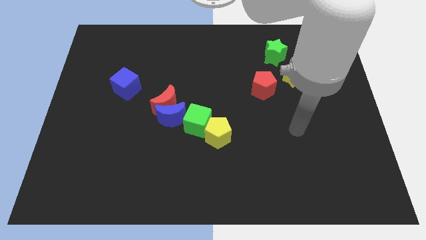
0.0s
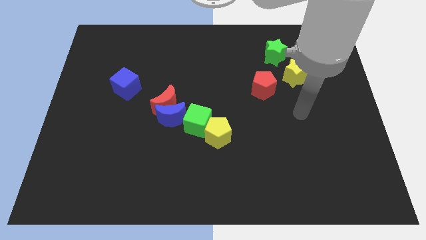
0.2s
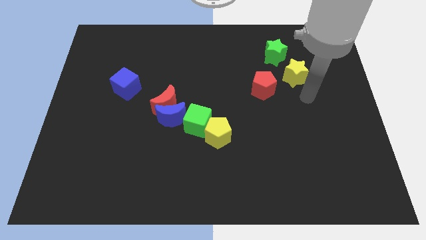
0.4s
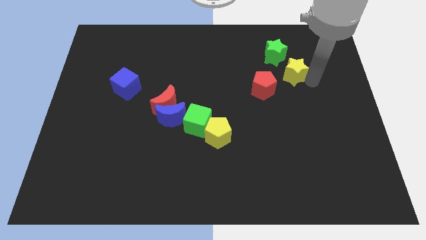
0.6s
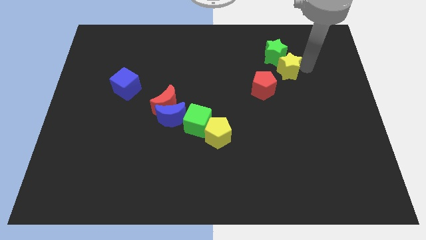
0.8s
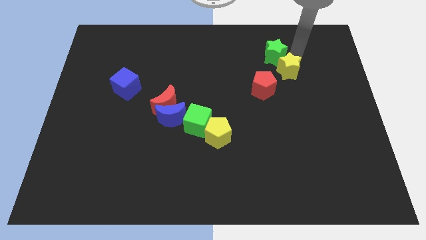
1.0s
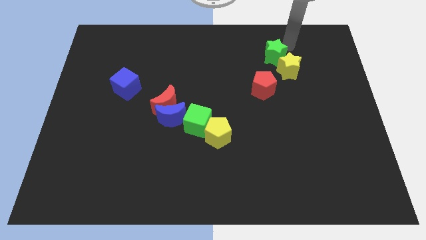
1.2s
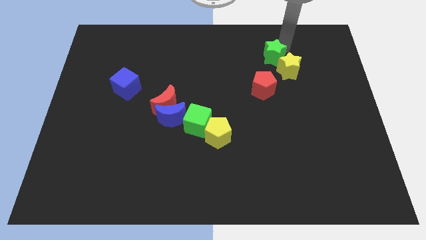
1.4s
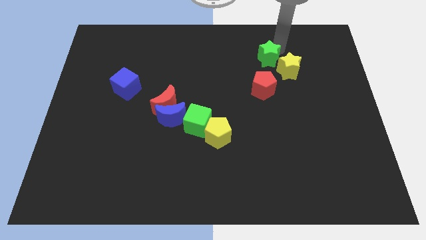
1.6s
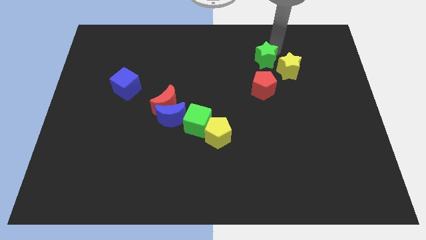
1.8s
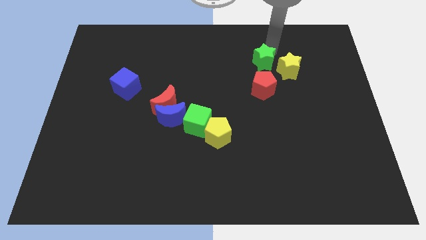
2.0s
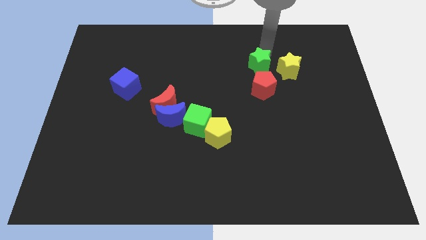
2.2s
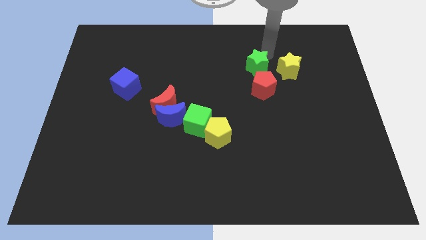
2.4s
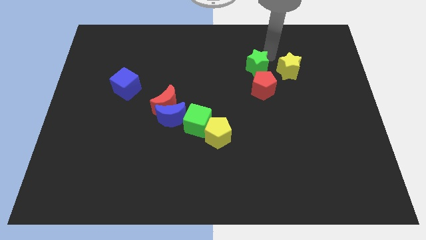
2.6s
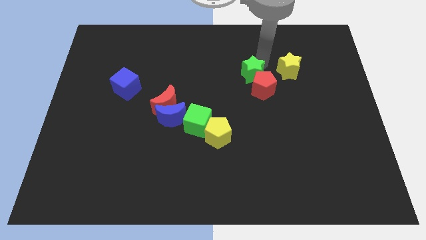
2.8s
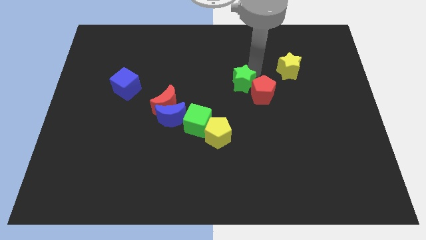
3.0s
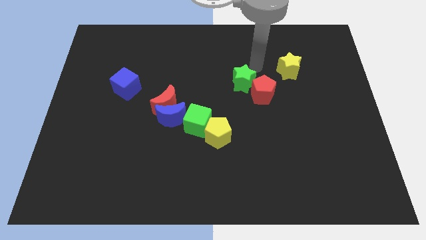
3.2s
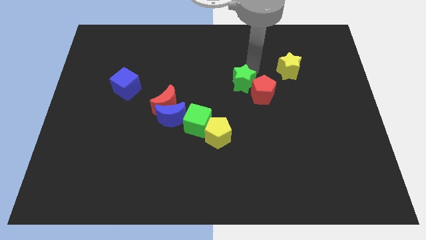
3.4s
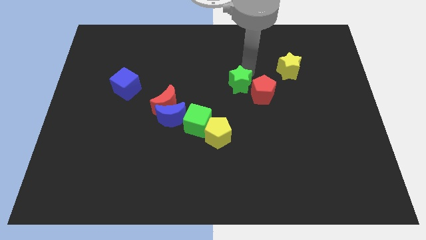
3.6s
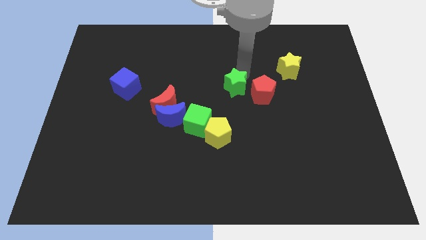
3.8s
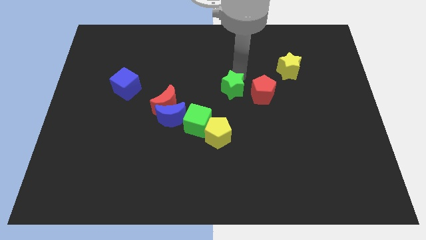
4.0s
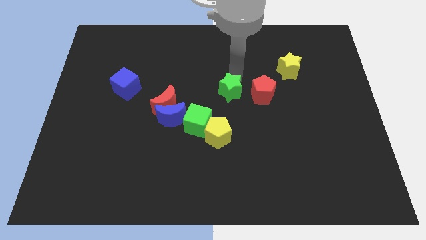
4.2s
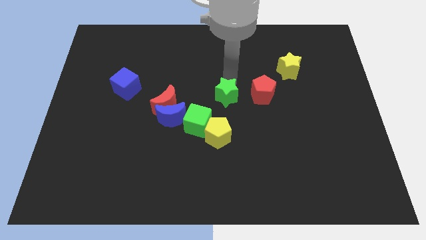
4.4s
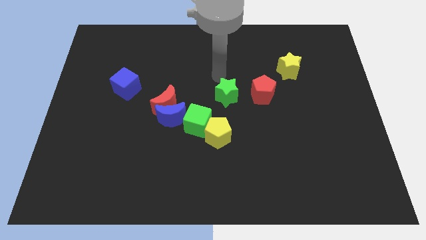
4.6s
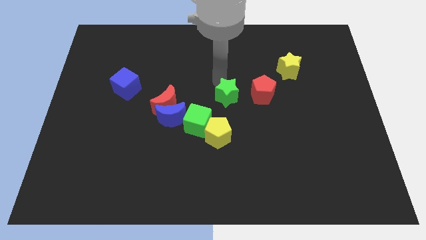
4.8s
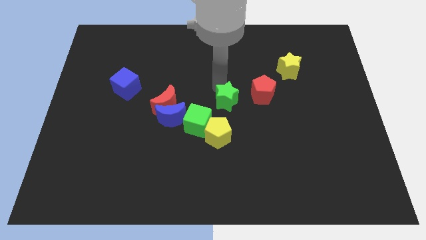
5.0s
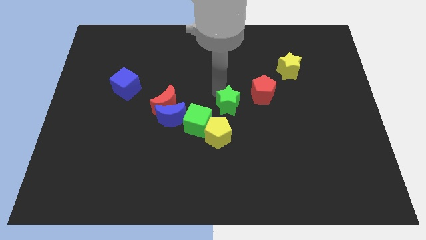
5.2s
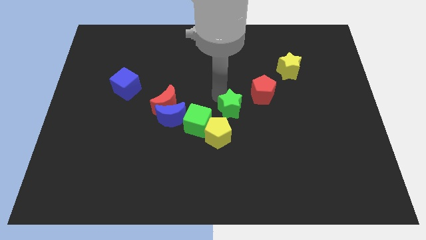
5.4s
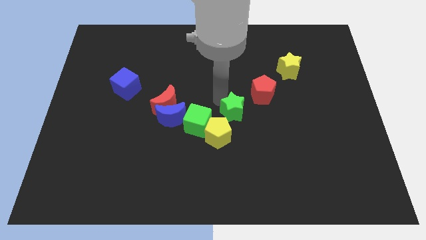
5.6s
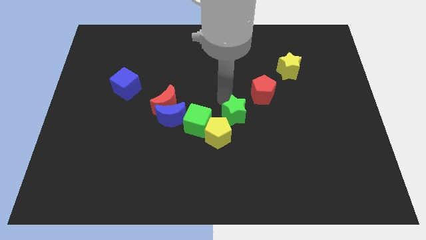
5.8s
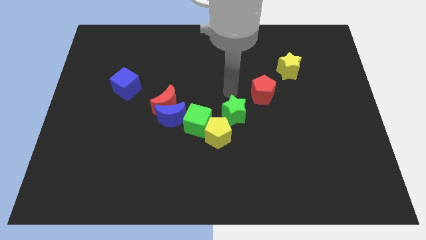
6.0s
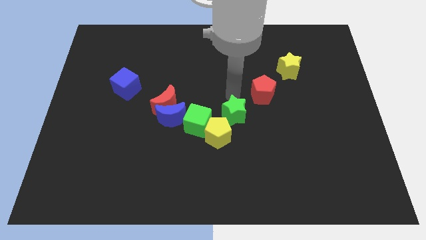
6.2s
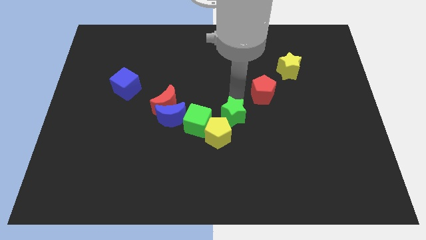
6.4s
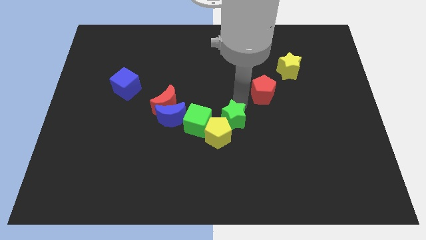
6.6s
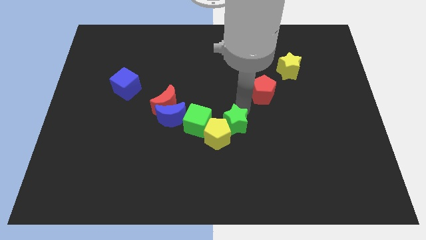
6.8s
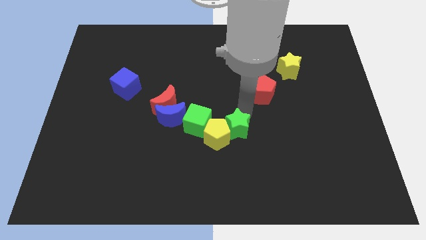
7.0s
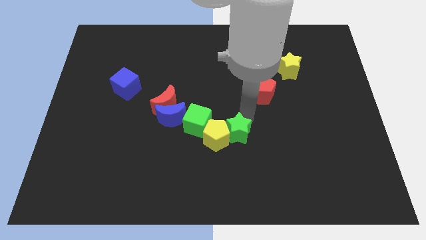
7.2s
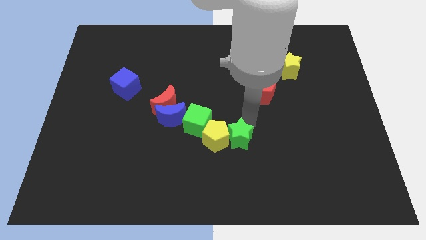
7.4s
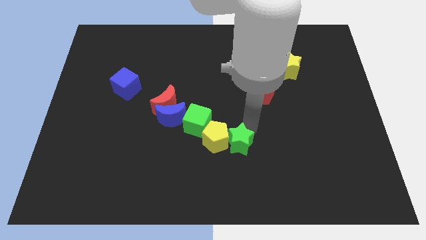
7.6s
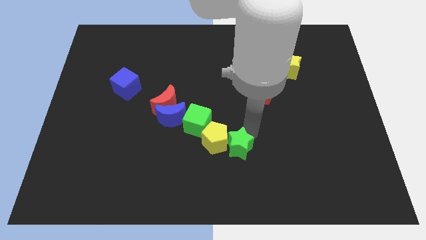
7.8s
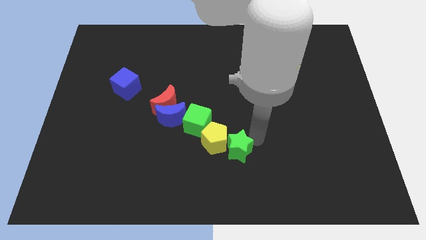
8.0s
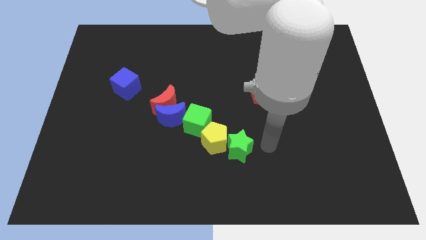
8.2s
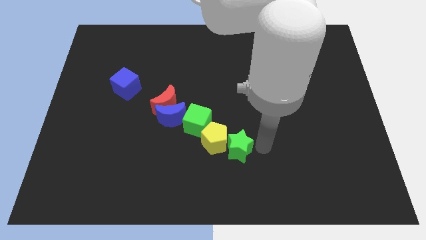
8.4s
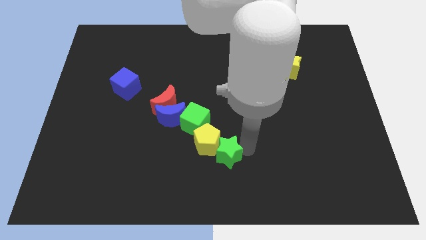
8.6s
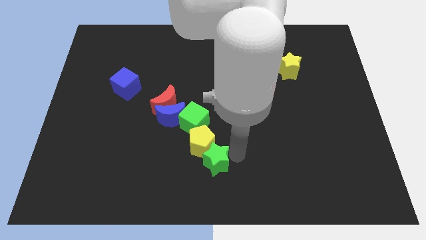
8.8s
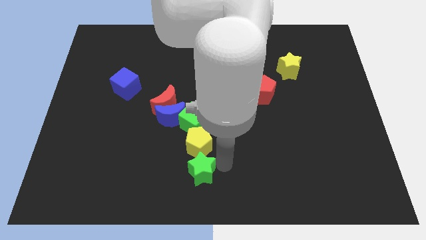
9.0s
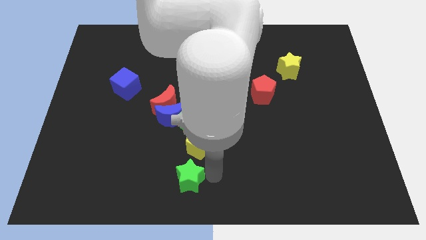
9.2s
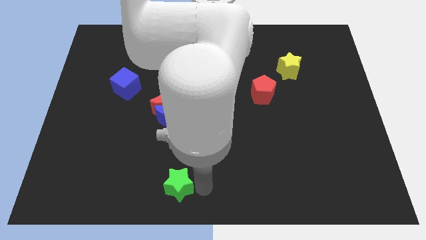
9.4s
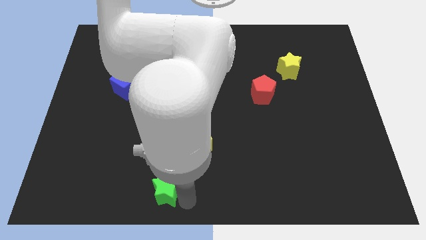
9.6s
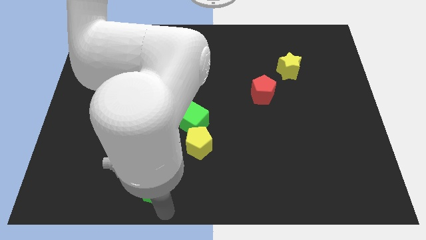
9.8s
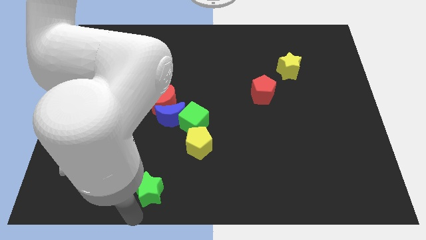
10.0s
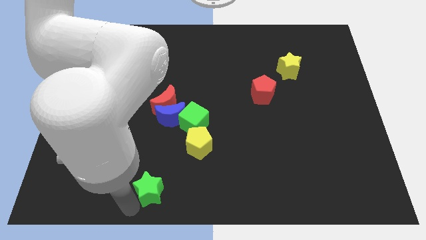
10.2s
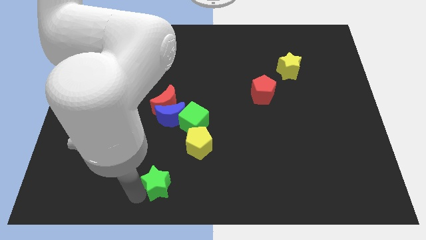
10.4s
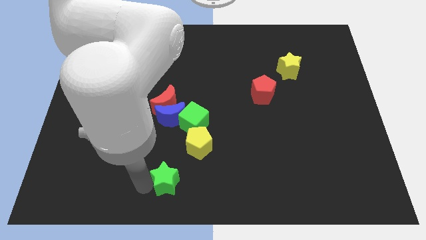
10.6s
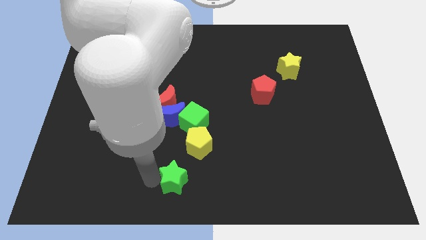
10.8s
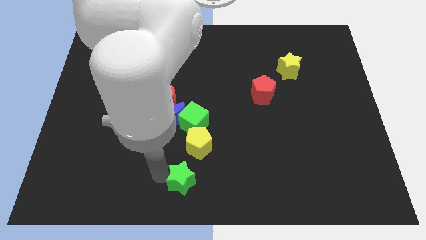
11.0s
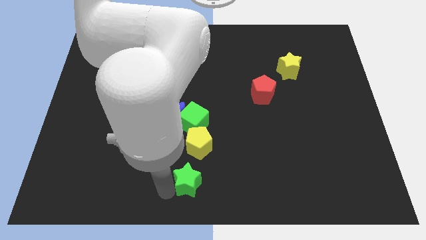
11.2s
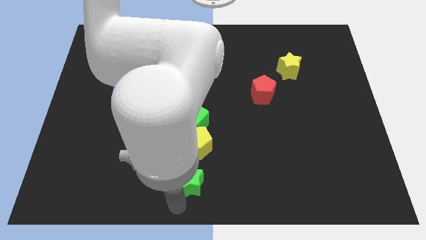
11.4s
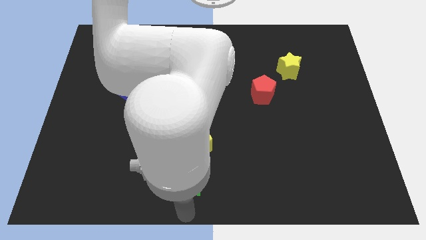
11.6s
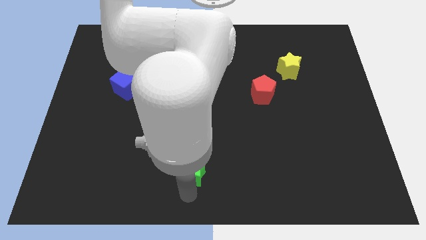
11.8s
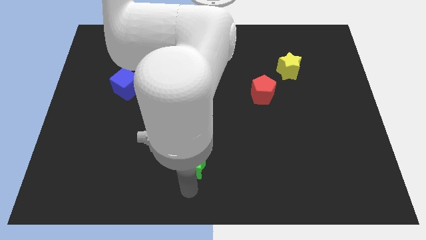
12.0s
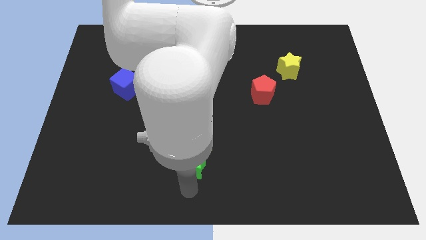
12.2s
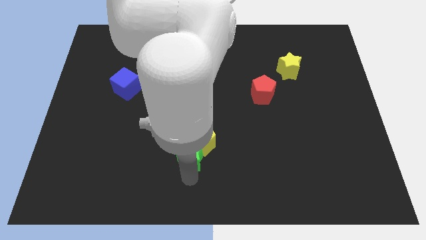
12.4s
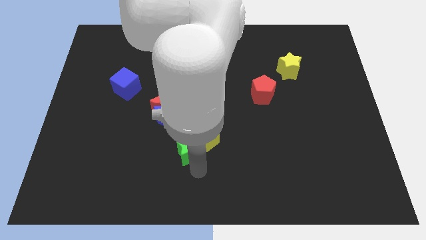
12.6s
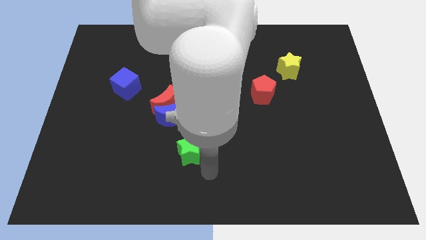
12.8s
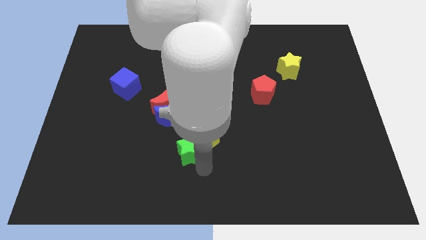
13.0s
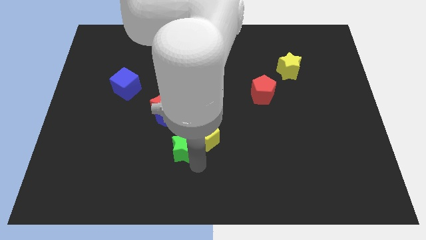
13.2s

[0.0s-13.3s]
move the green star to the bottom left side of the green cube
